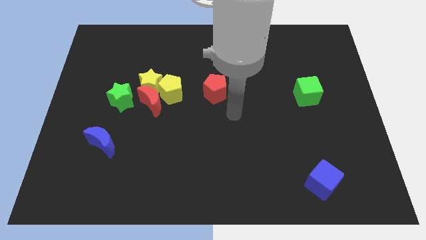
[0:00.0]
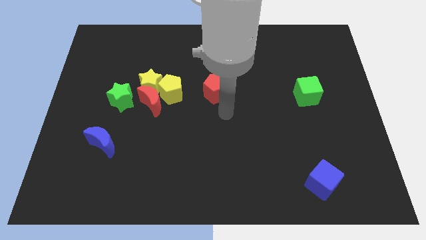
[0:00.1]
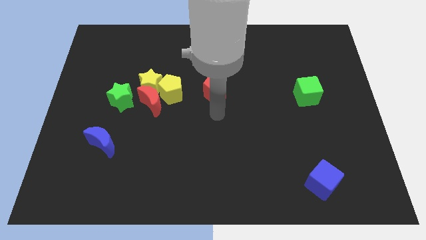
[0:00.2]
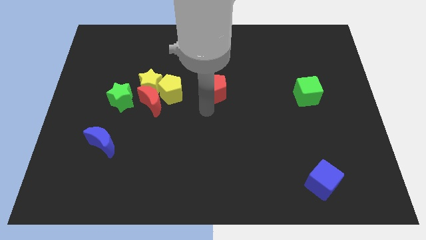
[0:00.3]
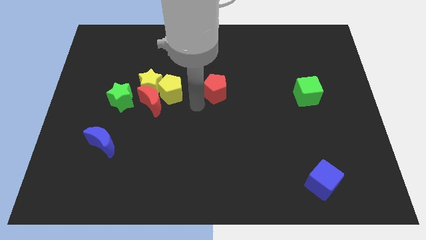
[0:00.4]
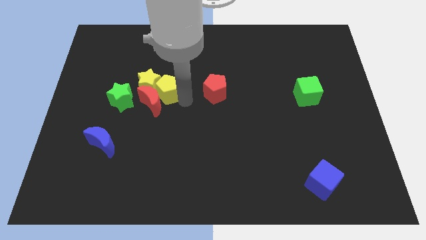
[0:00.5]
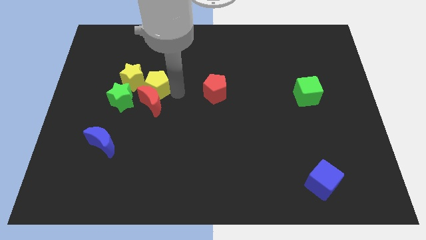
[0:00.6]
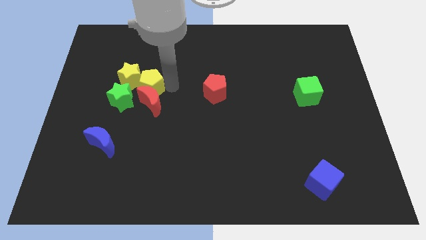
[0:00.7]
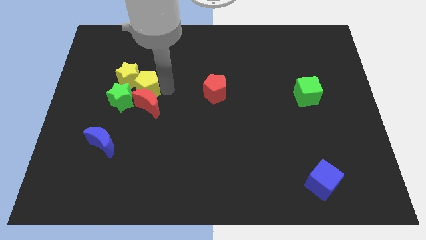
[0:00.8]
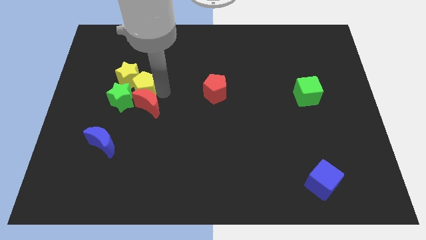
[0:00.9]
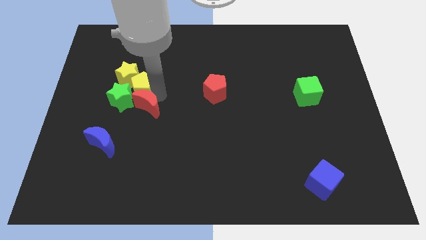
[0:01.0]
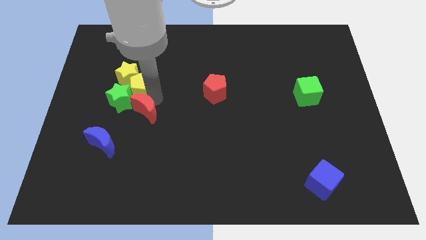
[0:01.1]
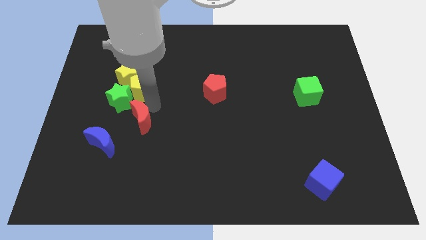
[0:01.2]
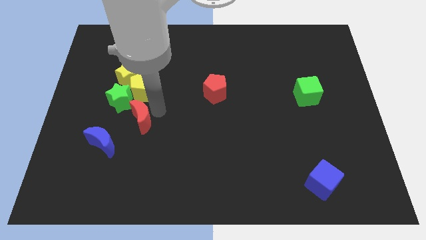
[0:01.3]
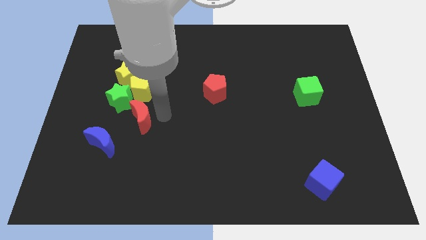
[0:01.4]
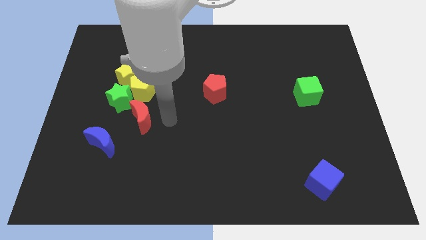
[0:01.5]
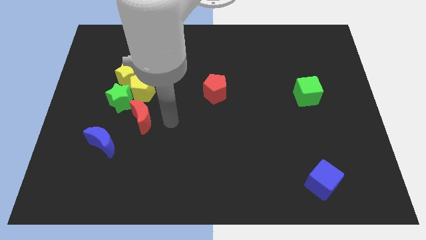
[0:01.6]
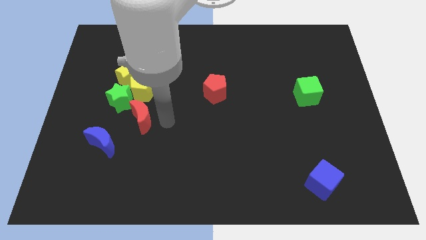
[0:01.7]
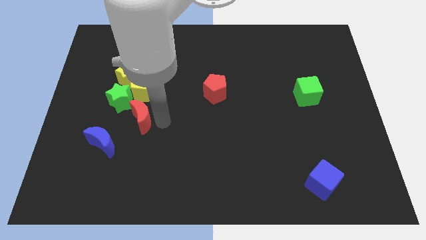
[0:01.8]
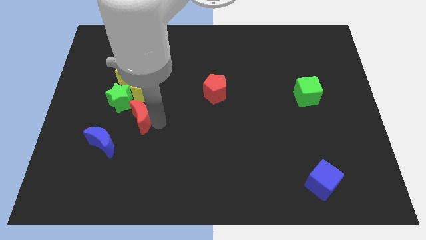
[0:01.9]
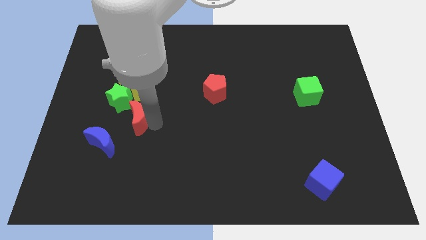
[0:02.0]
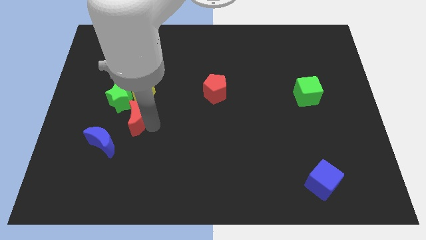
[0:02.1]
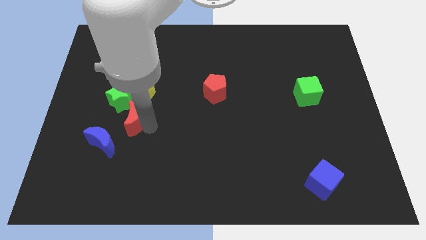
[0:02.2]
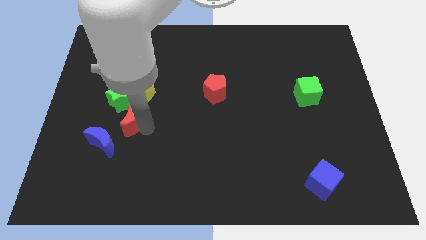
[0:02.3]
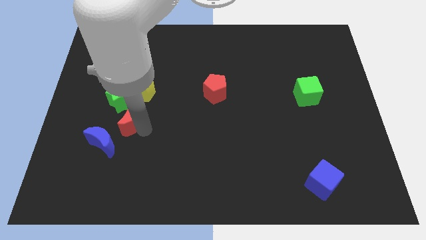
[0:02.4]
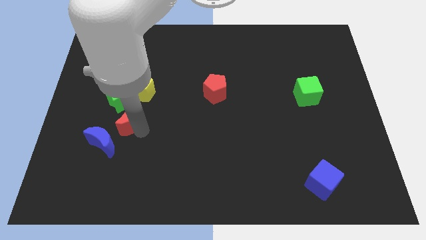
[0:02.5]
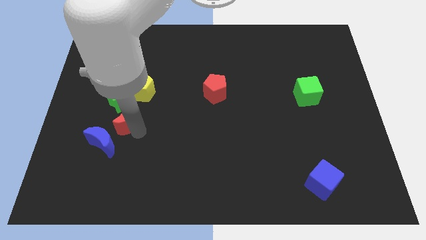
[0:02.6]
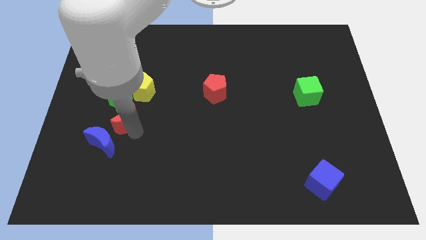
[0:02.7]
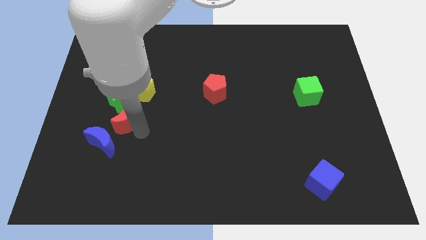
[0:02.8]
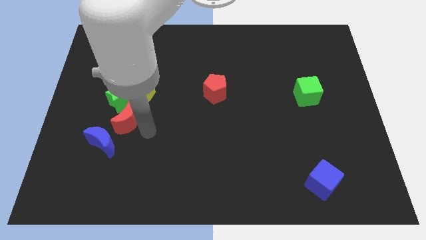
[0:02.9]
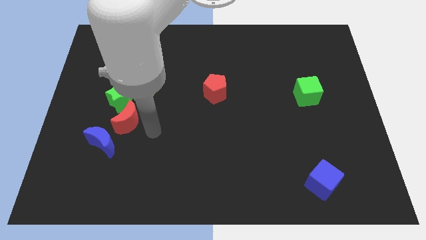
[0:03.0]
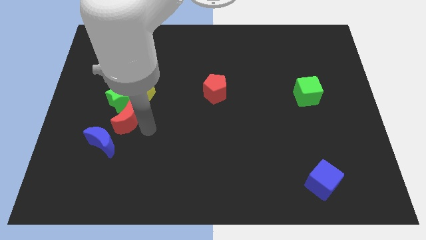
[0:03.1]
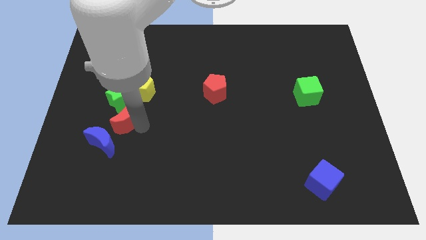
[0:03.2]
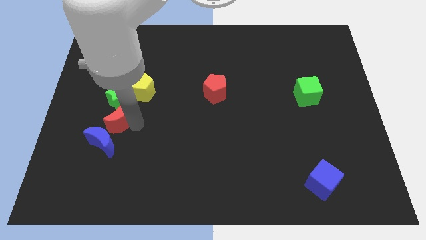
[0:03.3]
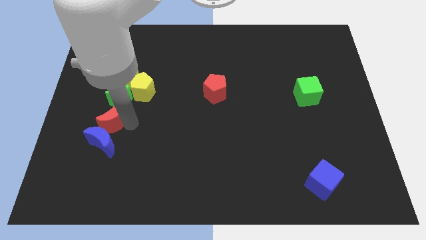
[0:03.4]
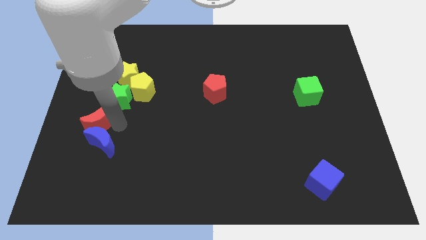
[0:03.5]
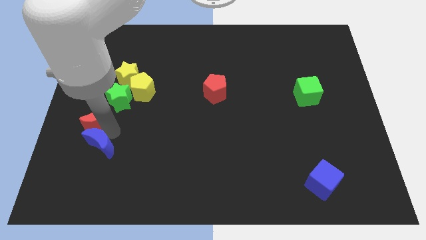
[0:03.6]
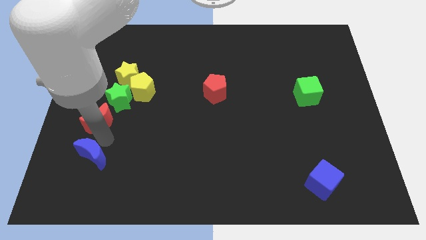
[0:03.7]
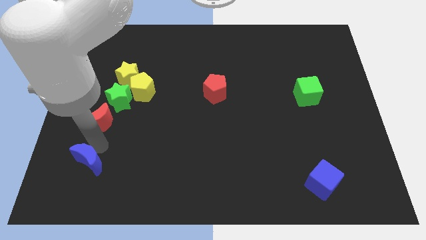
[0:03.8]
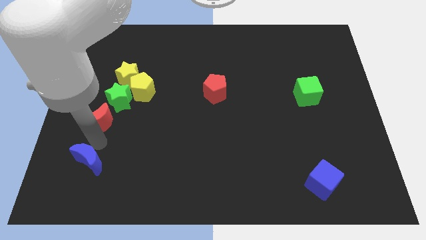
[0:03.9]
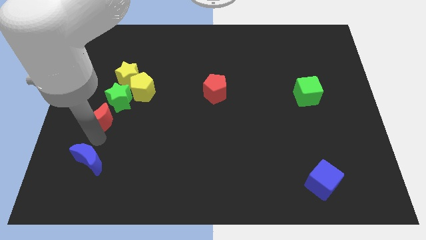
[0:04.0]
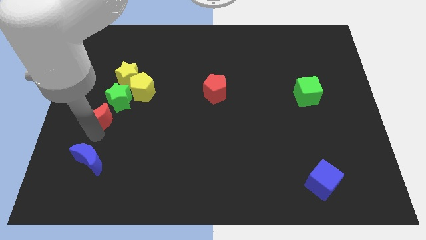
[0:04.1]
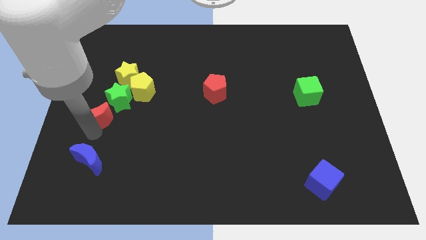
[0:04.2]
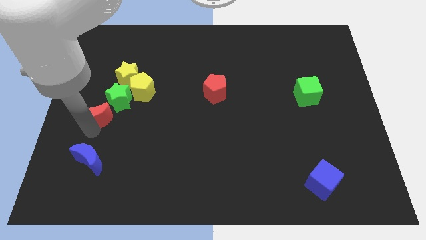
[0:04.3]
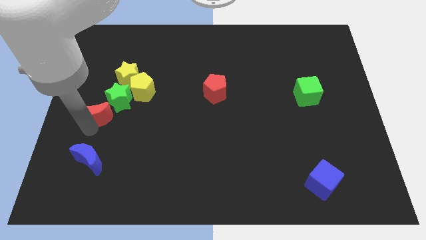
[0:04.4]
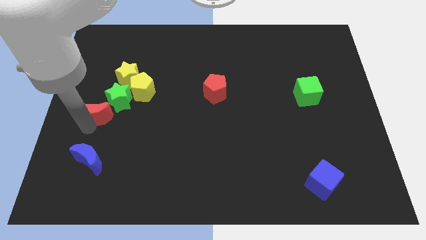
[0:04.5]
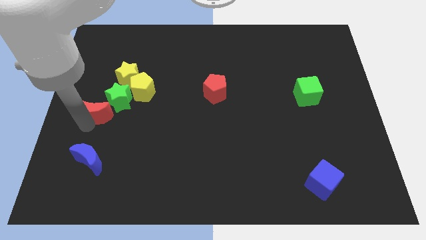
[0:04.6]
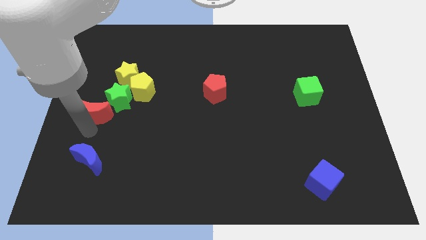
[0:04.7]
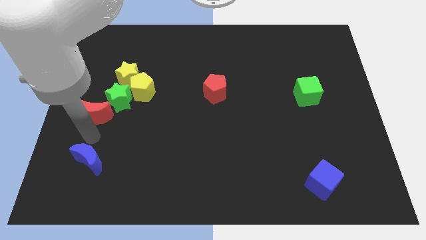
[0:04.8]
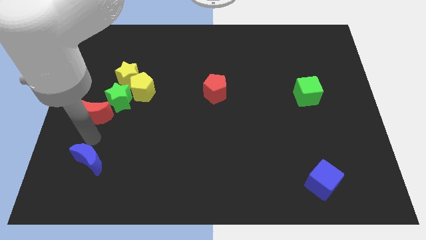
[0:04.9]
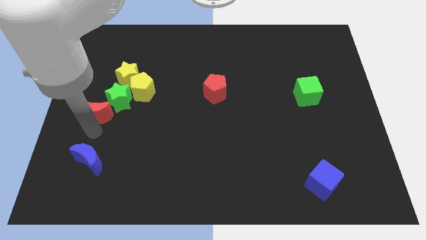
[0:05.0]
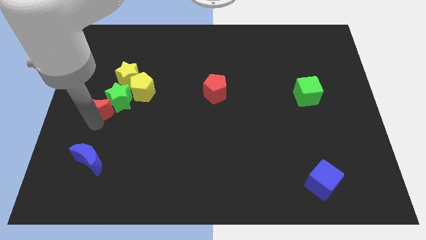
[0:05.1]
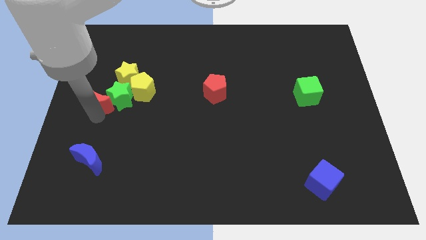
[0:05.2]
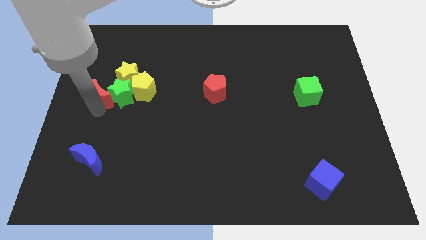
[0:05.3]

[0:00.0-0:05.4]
slightly slide the red moon upwards and then left

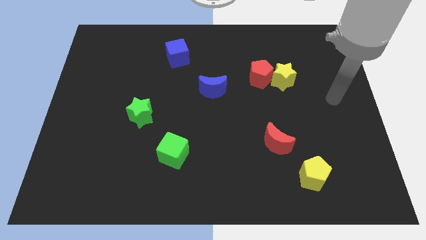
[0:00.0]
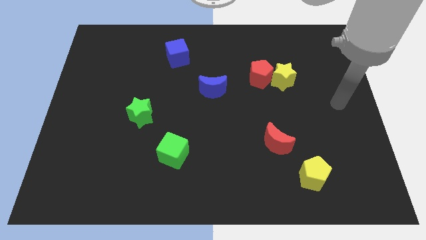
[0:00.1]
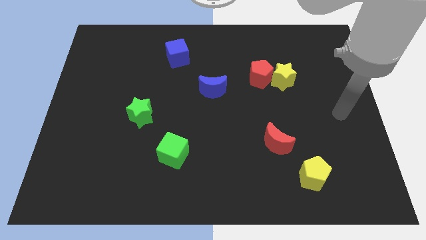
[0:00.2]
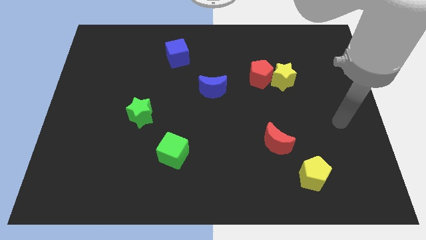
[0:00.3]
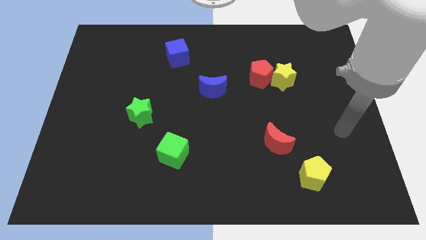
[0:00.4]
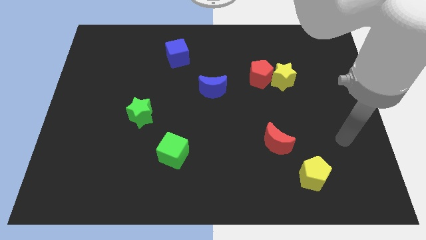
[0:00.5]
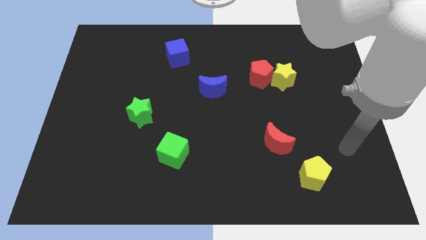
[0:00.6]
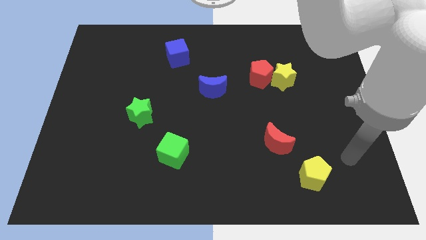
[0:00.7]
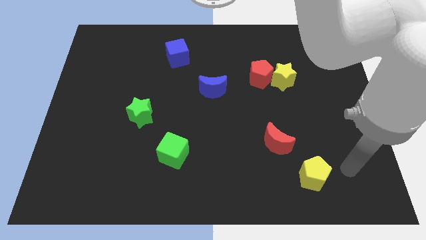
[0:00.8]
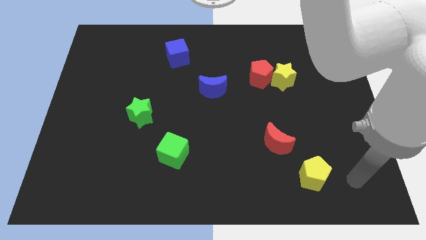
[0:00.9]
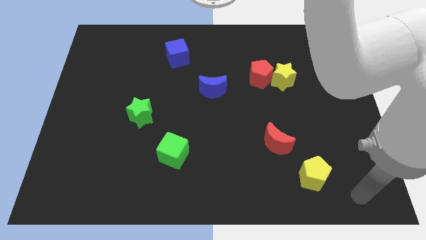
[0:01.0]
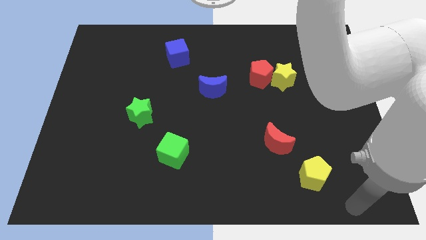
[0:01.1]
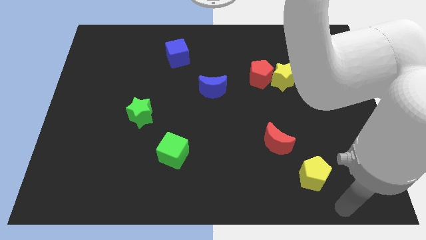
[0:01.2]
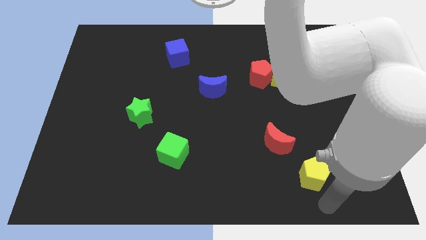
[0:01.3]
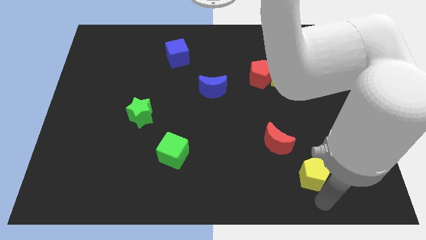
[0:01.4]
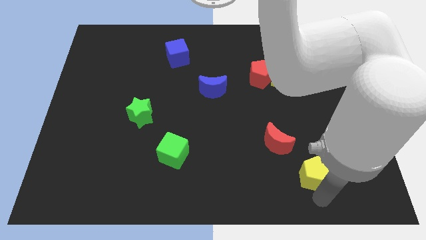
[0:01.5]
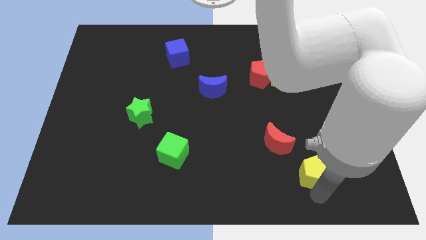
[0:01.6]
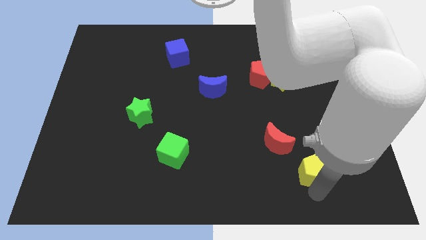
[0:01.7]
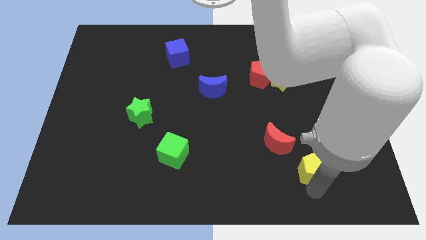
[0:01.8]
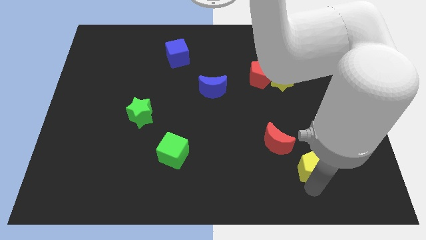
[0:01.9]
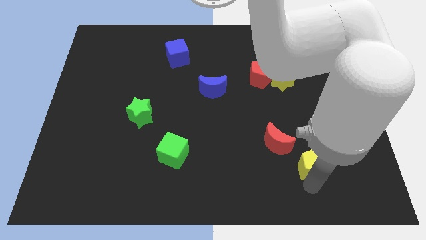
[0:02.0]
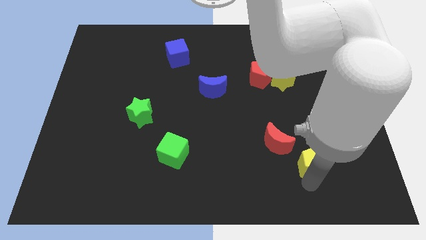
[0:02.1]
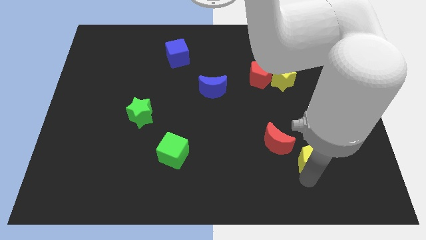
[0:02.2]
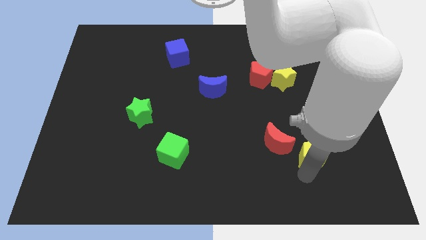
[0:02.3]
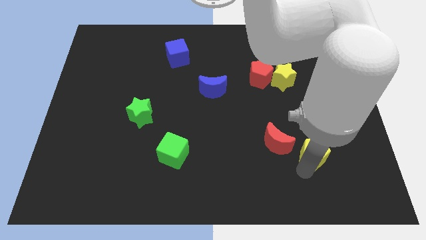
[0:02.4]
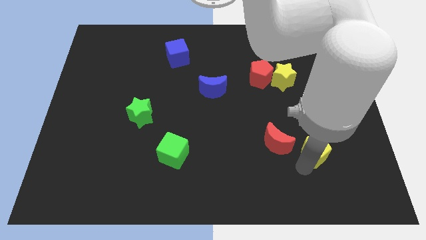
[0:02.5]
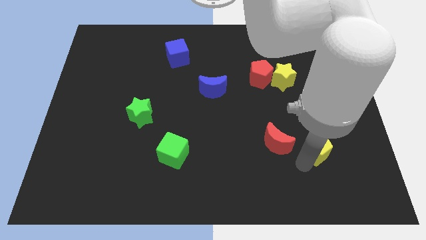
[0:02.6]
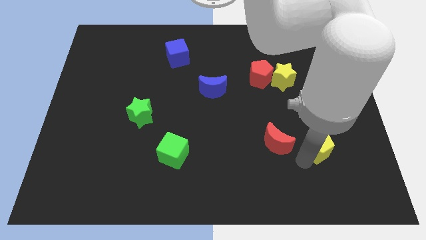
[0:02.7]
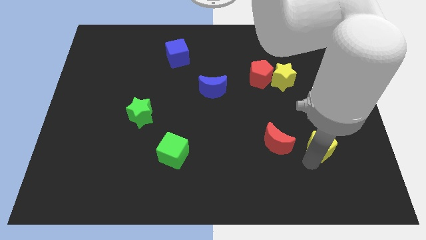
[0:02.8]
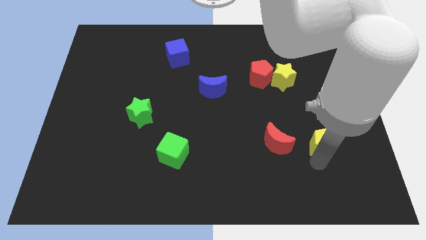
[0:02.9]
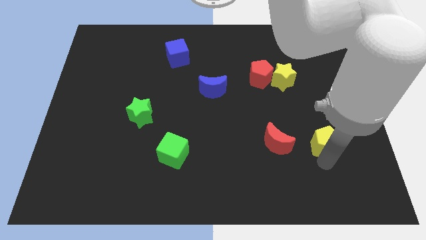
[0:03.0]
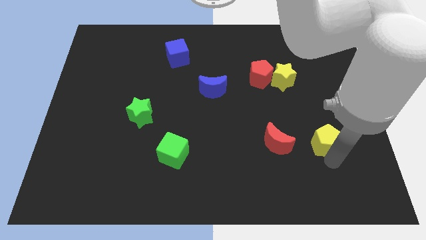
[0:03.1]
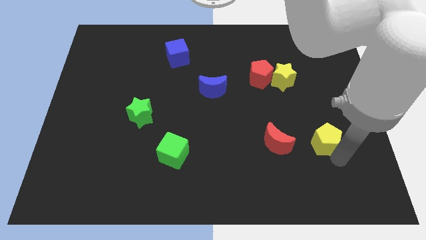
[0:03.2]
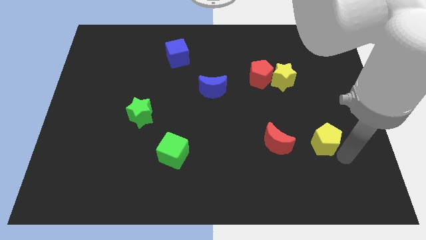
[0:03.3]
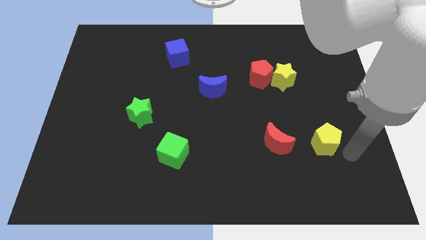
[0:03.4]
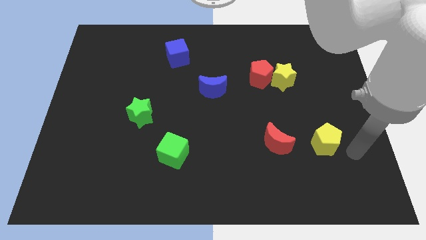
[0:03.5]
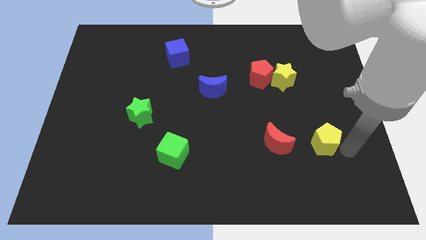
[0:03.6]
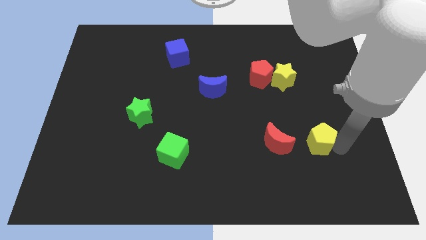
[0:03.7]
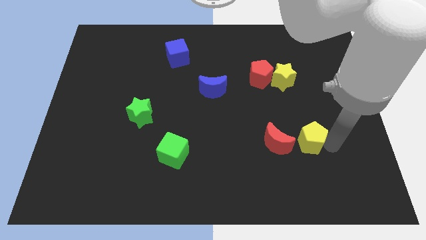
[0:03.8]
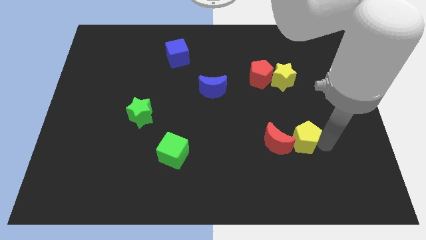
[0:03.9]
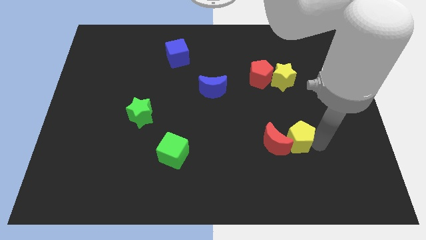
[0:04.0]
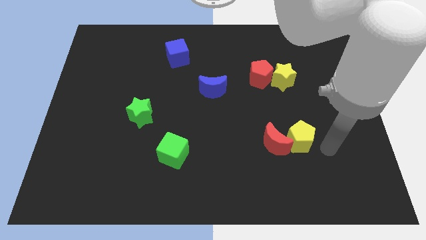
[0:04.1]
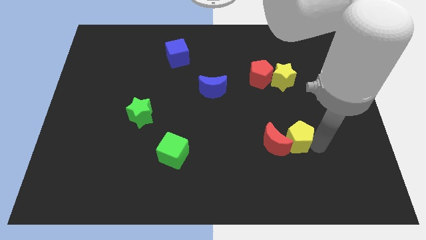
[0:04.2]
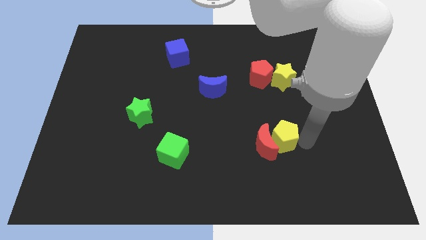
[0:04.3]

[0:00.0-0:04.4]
slightly slide the yellow pentagon up and to the left diagonally
